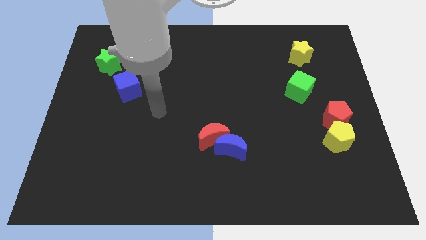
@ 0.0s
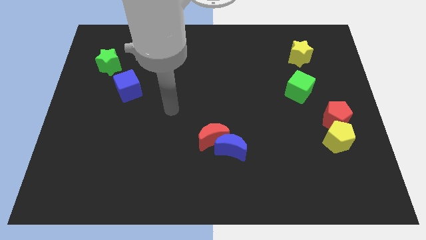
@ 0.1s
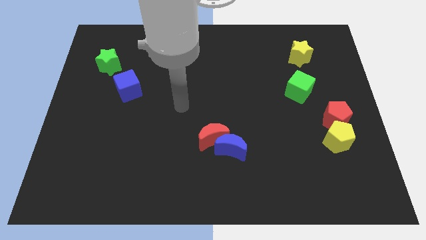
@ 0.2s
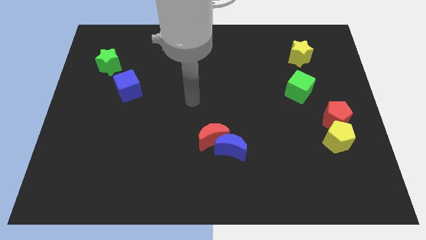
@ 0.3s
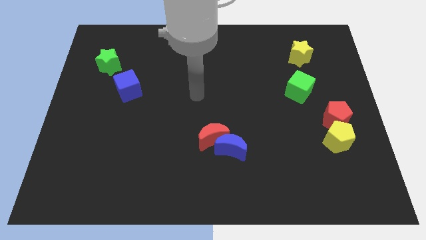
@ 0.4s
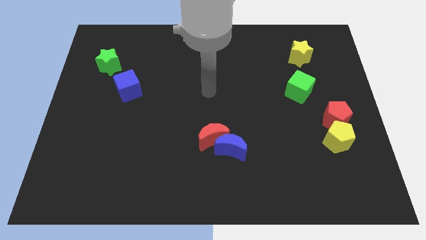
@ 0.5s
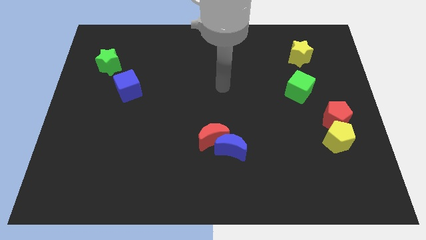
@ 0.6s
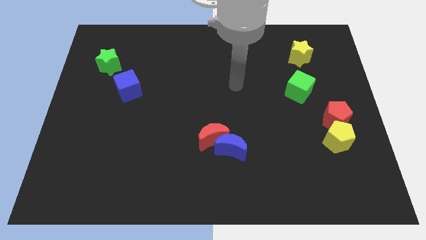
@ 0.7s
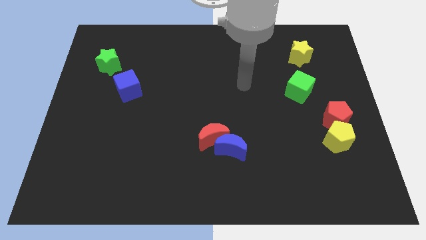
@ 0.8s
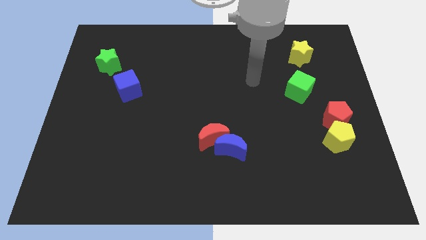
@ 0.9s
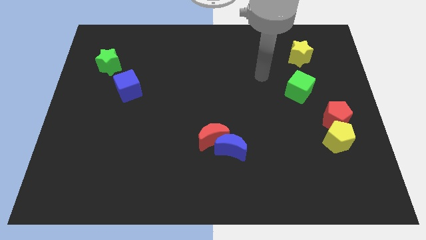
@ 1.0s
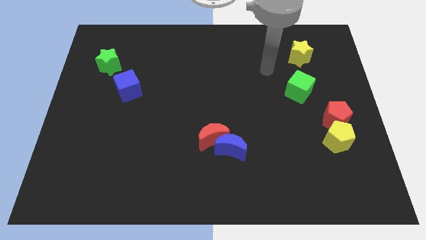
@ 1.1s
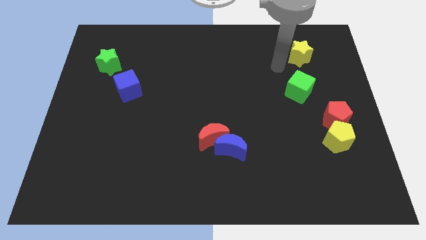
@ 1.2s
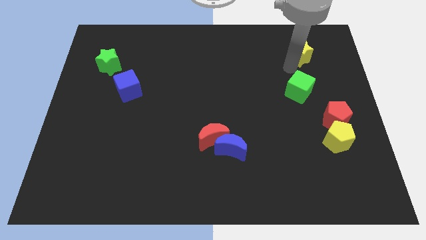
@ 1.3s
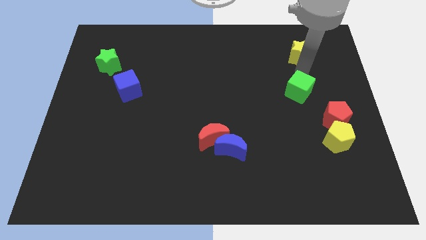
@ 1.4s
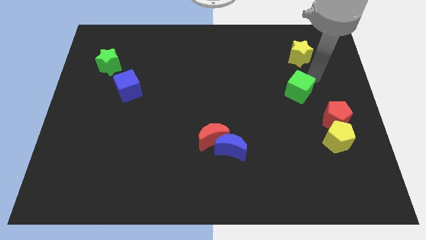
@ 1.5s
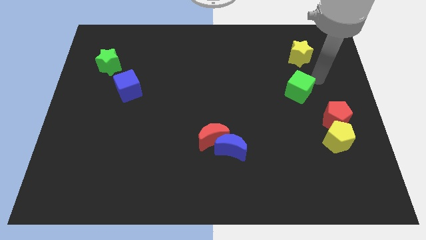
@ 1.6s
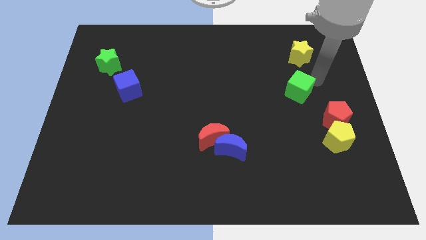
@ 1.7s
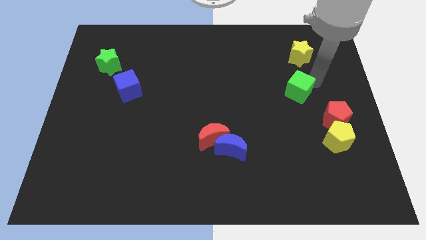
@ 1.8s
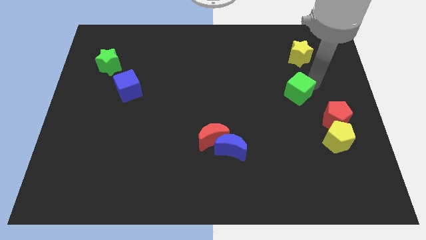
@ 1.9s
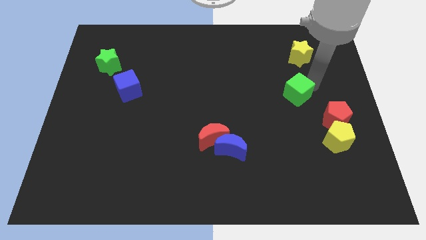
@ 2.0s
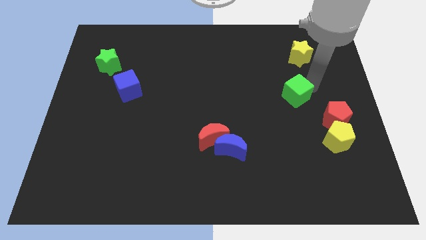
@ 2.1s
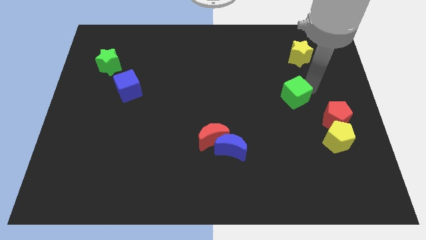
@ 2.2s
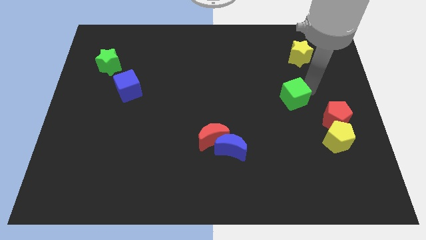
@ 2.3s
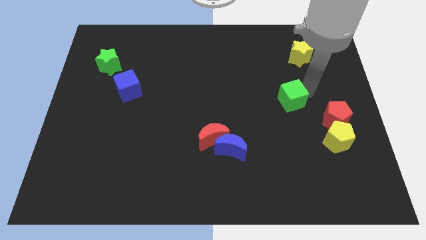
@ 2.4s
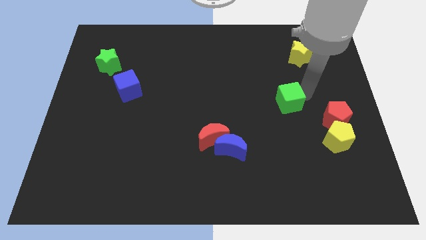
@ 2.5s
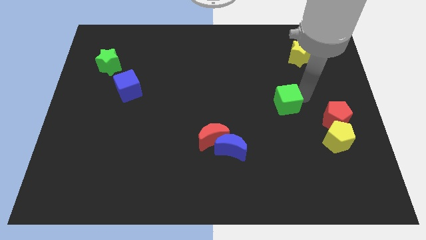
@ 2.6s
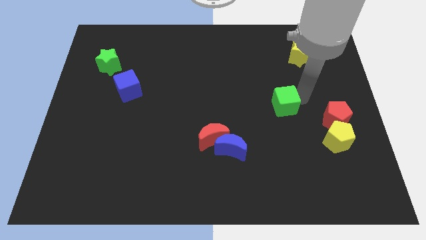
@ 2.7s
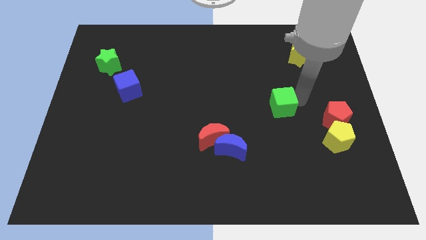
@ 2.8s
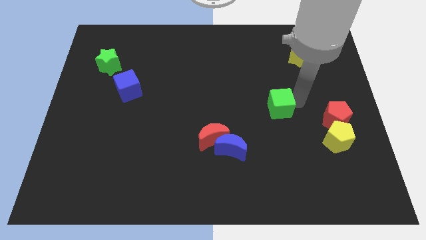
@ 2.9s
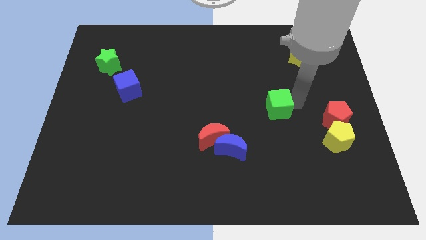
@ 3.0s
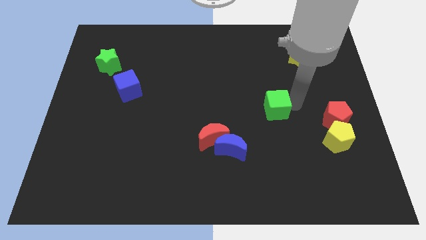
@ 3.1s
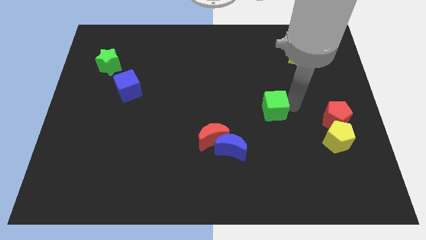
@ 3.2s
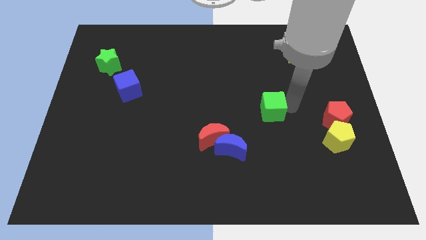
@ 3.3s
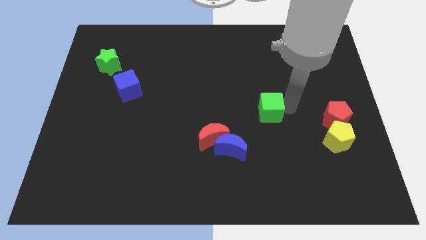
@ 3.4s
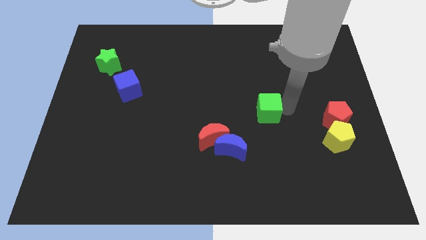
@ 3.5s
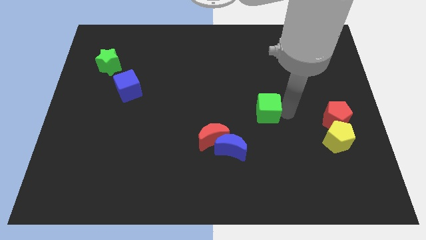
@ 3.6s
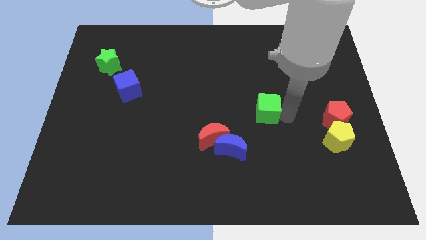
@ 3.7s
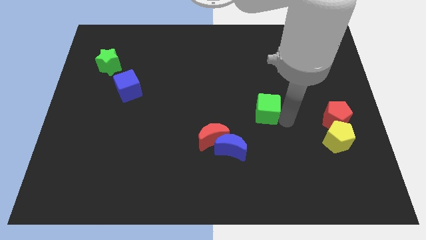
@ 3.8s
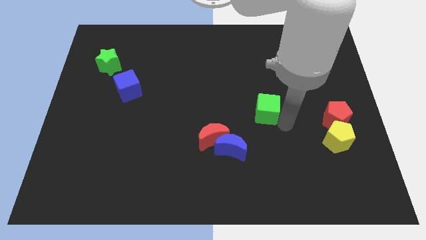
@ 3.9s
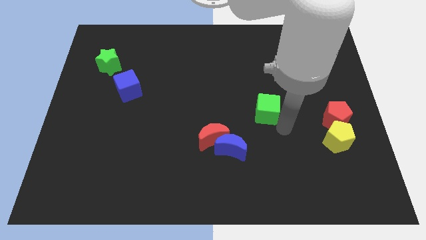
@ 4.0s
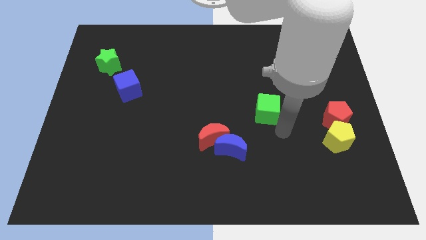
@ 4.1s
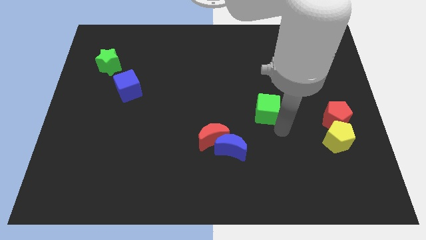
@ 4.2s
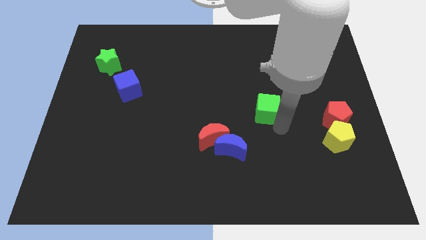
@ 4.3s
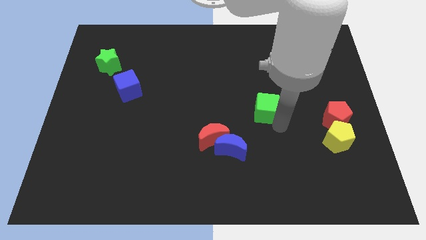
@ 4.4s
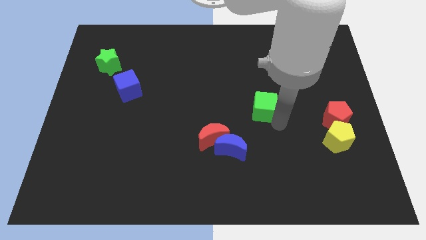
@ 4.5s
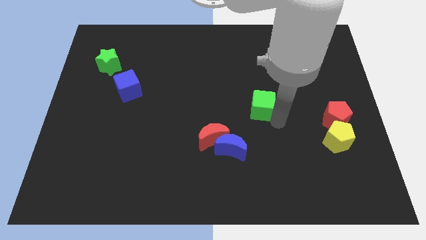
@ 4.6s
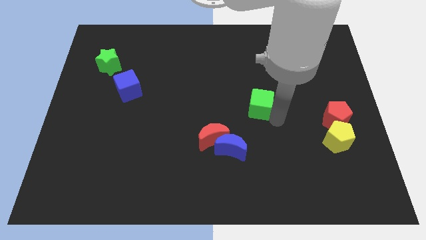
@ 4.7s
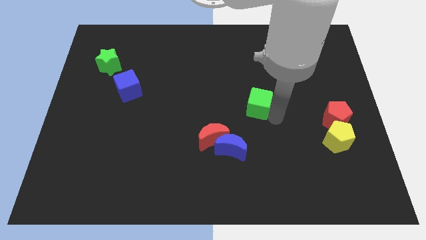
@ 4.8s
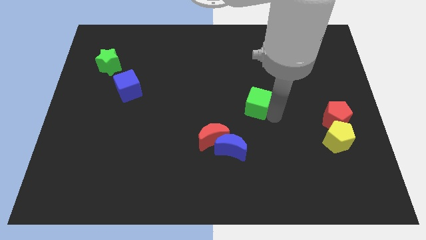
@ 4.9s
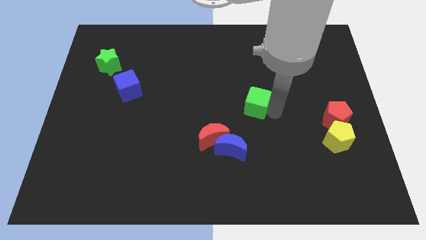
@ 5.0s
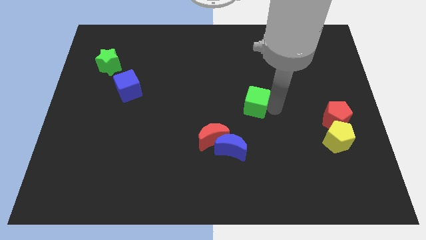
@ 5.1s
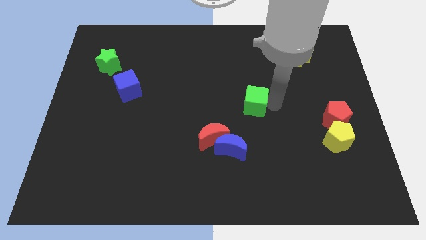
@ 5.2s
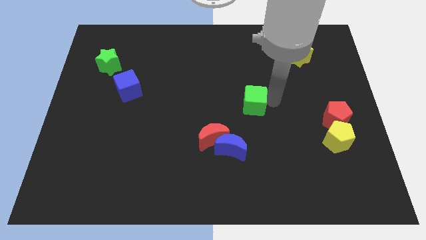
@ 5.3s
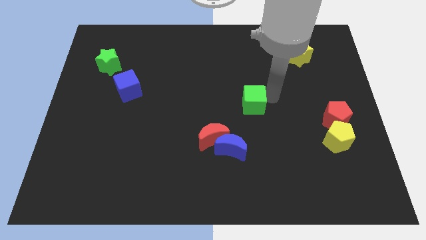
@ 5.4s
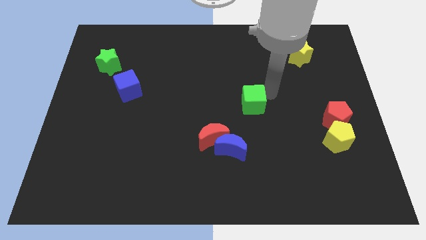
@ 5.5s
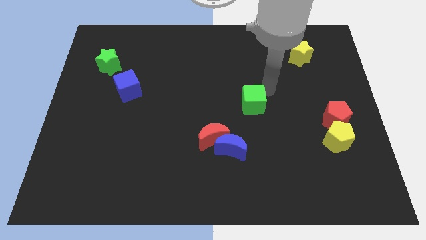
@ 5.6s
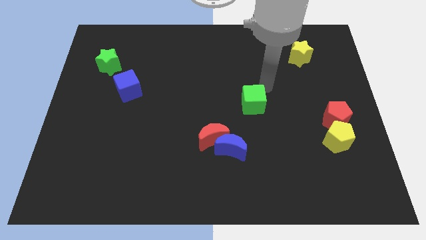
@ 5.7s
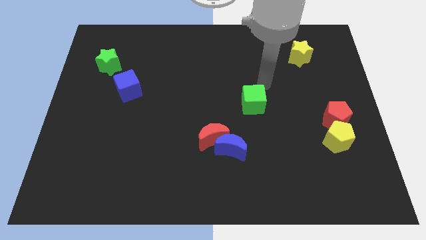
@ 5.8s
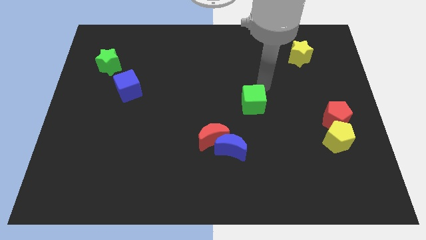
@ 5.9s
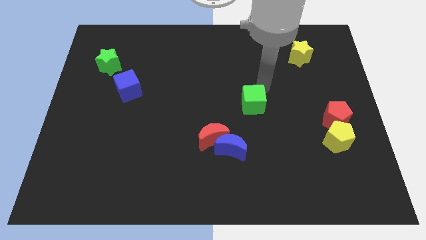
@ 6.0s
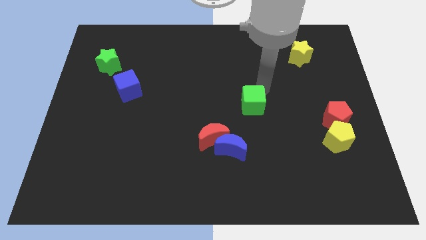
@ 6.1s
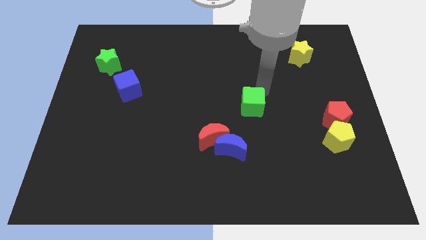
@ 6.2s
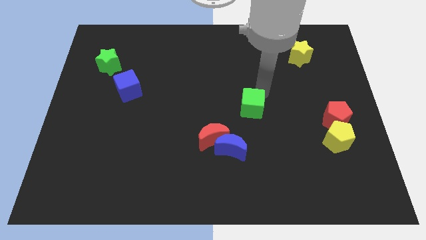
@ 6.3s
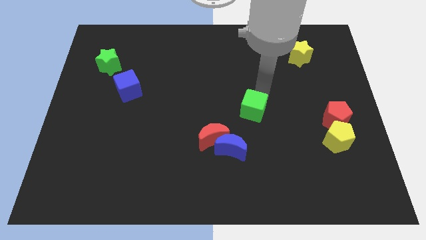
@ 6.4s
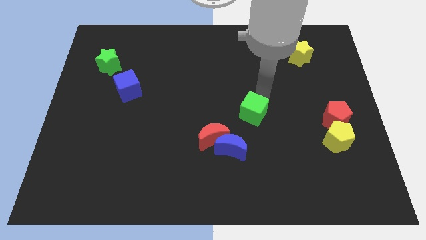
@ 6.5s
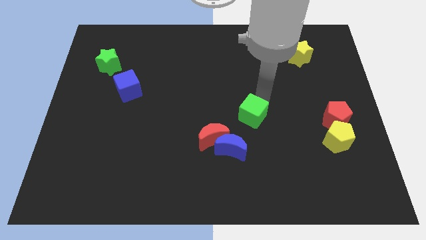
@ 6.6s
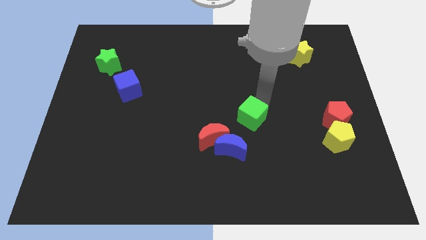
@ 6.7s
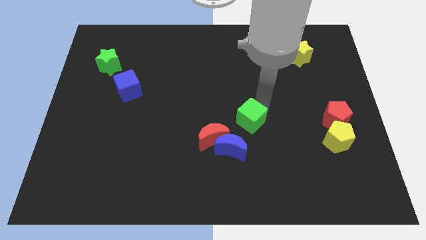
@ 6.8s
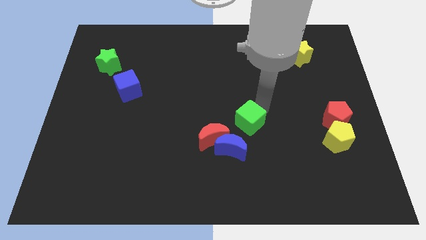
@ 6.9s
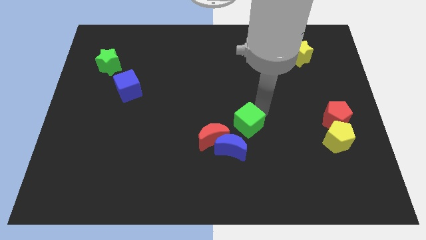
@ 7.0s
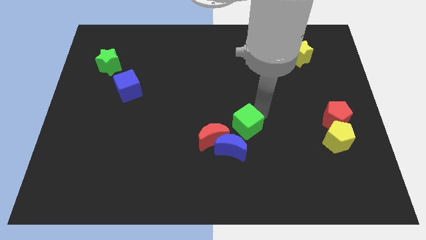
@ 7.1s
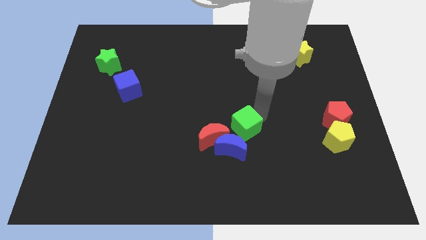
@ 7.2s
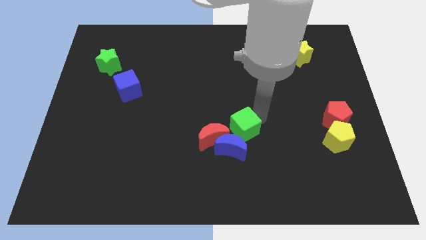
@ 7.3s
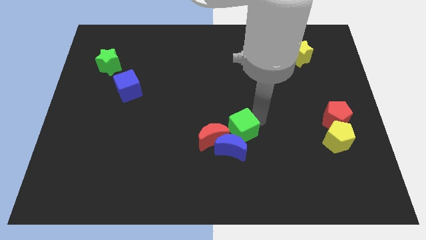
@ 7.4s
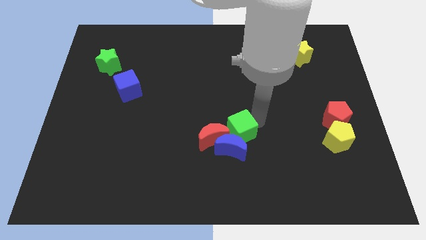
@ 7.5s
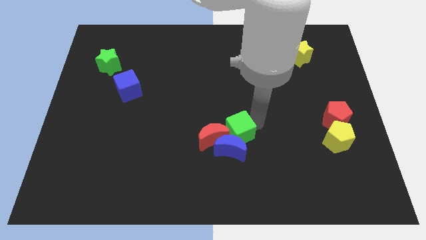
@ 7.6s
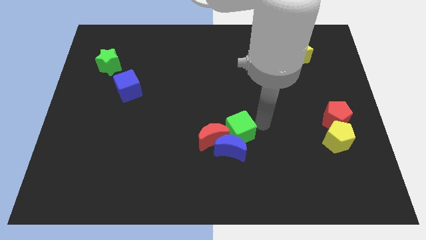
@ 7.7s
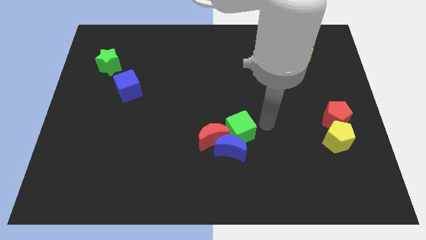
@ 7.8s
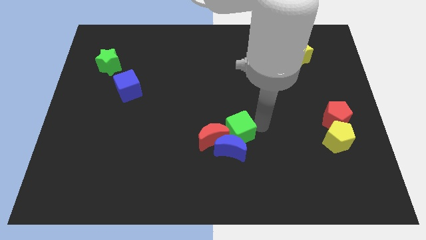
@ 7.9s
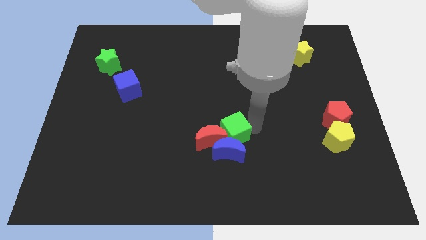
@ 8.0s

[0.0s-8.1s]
push the green cube to the red moon
